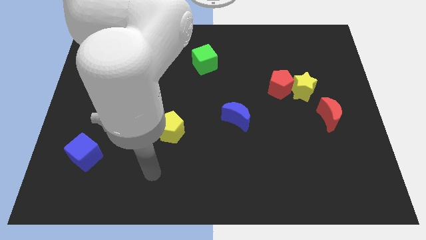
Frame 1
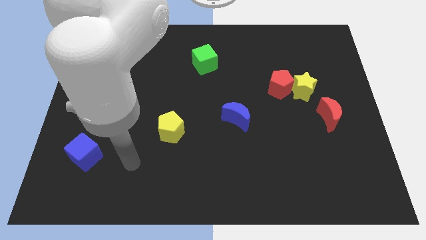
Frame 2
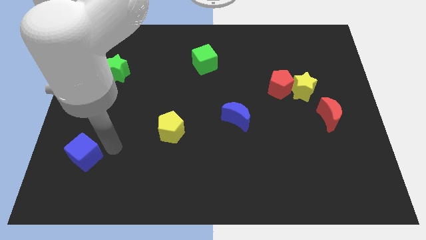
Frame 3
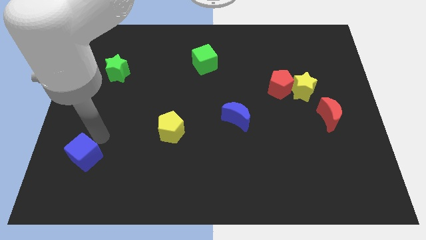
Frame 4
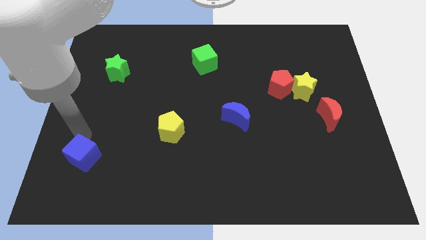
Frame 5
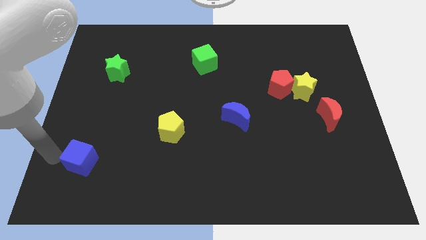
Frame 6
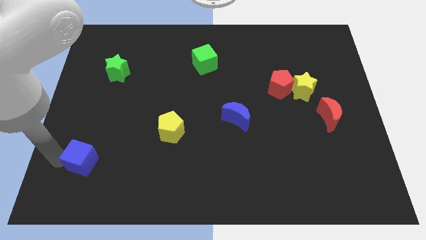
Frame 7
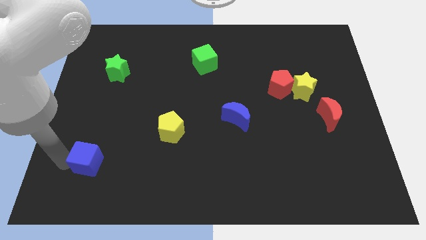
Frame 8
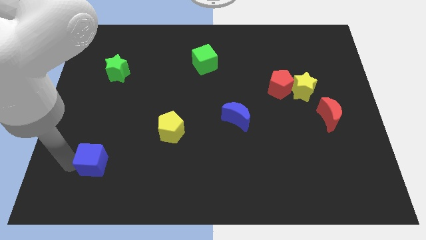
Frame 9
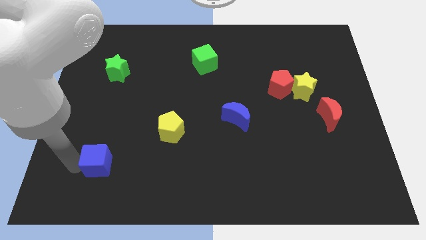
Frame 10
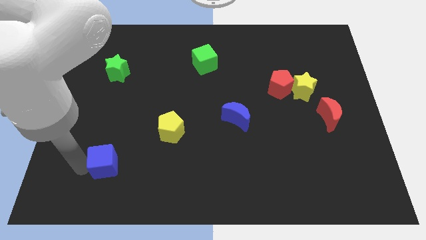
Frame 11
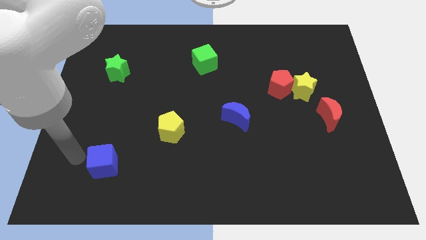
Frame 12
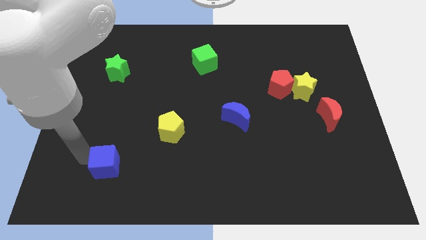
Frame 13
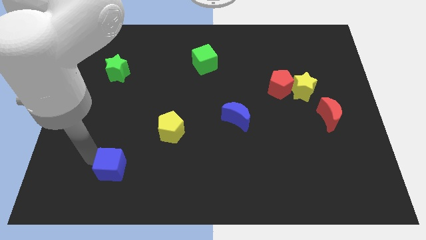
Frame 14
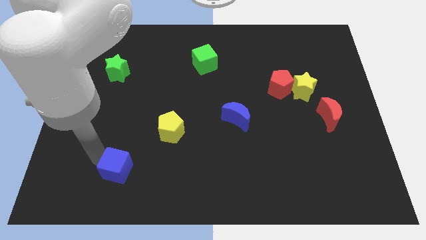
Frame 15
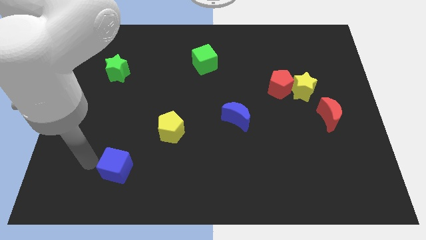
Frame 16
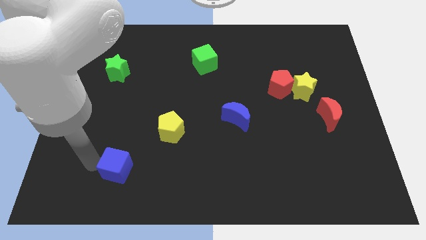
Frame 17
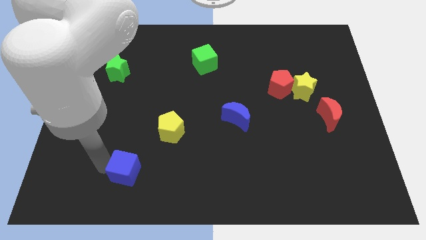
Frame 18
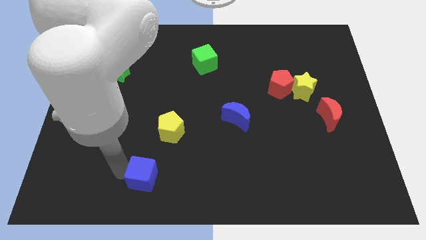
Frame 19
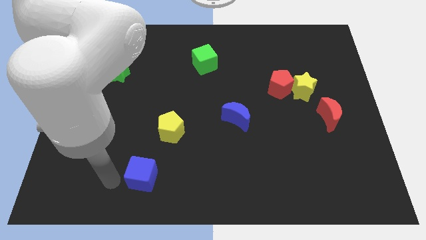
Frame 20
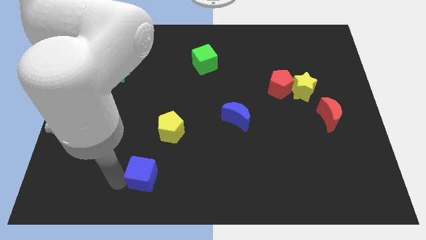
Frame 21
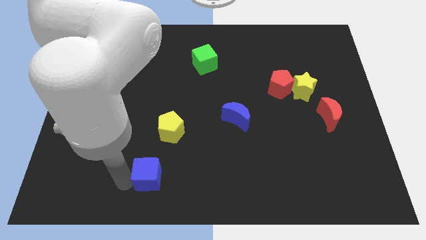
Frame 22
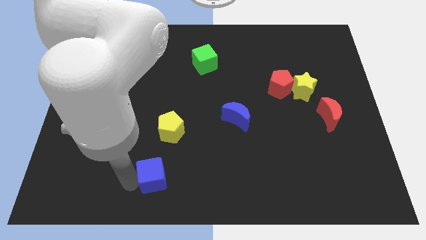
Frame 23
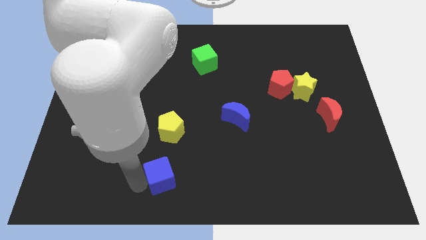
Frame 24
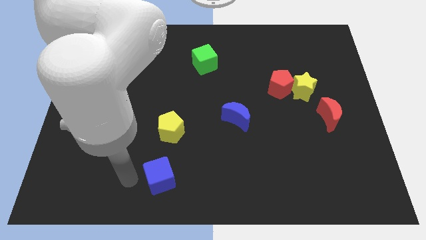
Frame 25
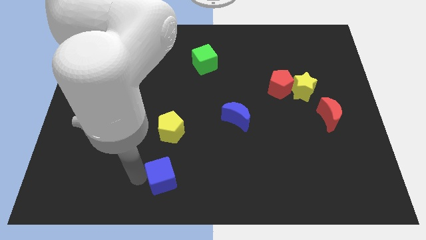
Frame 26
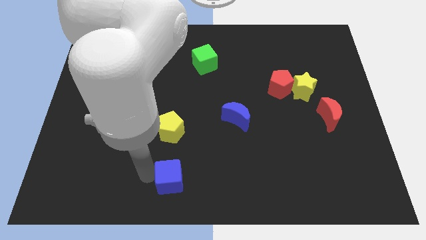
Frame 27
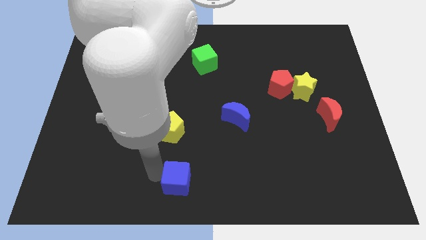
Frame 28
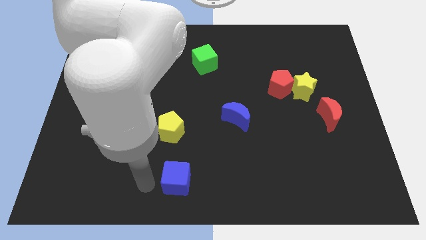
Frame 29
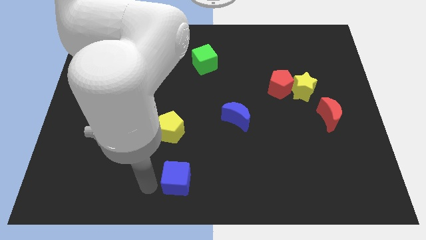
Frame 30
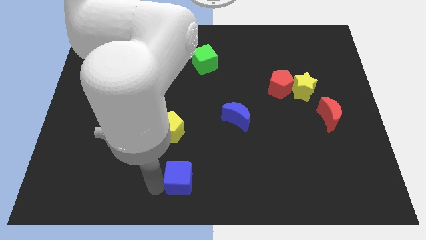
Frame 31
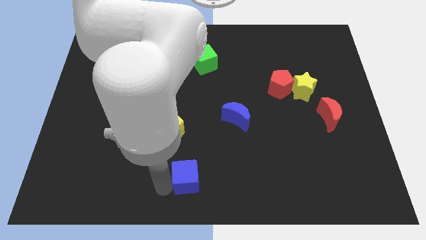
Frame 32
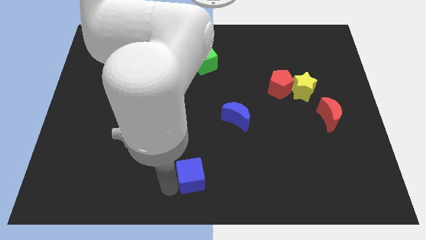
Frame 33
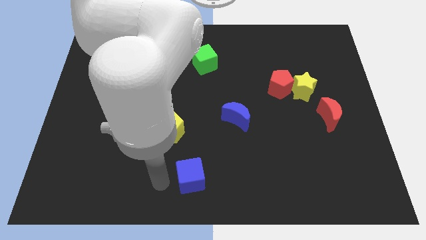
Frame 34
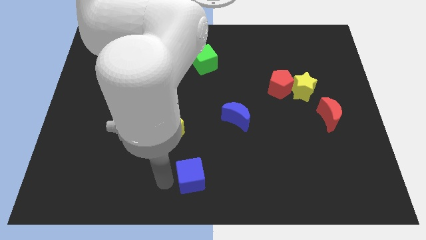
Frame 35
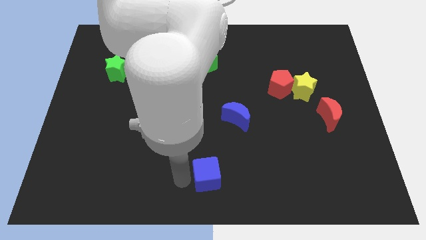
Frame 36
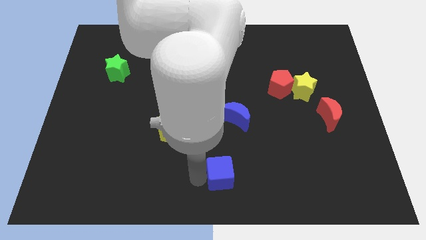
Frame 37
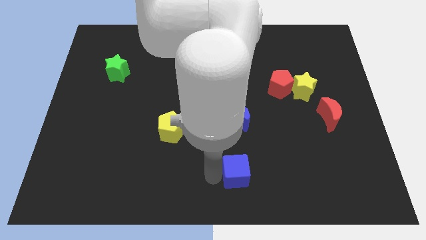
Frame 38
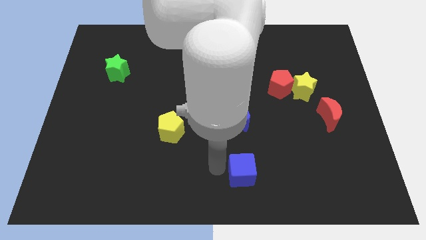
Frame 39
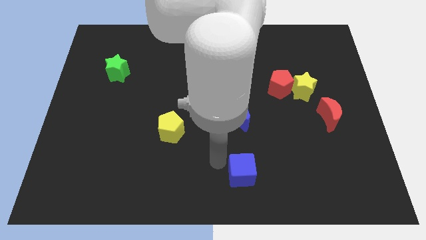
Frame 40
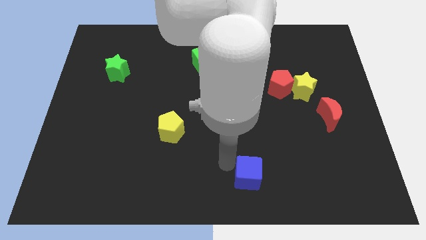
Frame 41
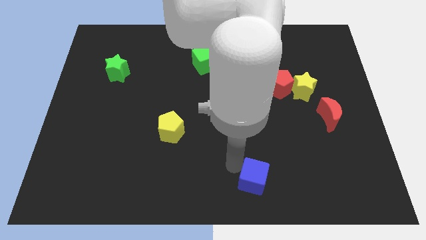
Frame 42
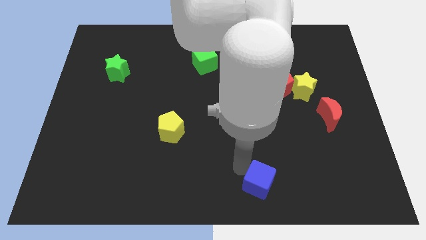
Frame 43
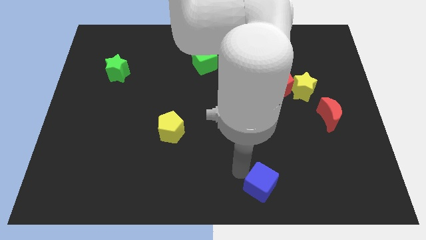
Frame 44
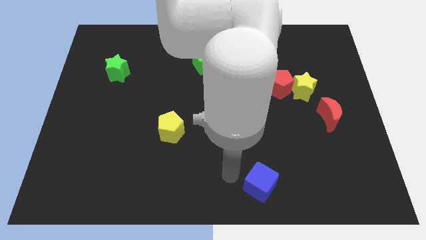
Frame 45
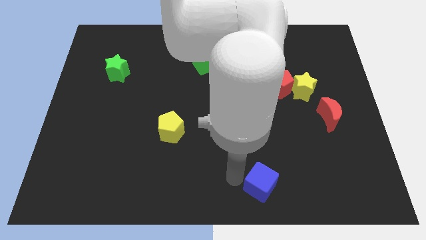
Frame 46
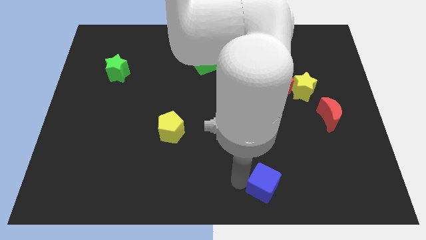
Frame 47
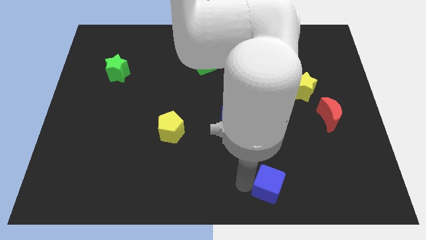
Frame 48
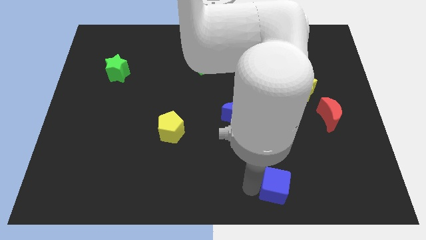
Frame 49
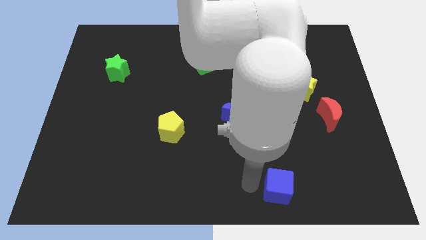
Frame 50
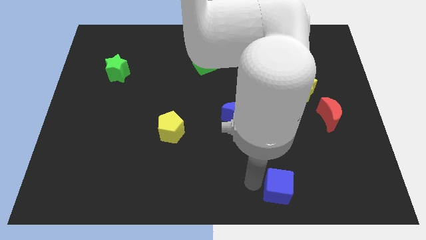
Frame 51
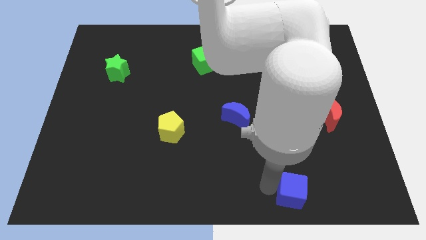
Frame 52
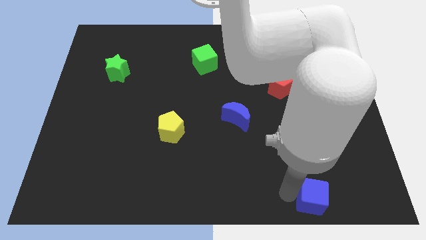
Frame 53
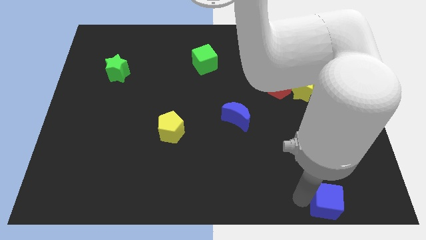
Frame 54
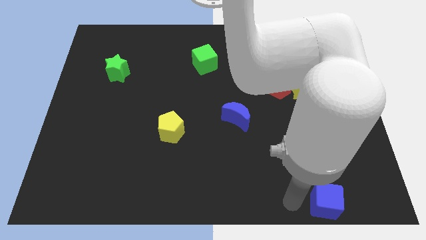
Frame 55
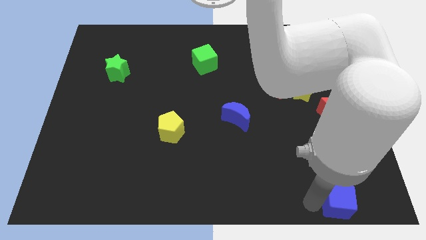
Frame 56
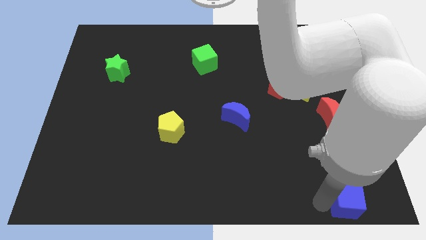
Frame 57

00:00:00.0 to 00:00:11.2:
push the blue cube to the bottom right

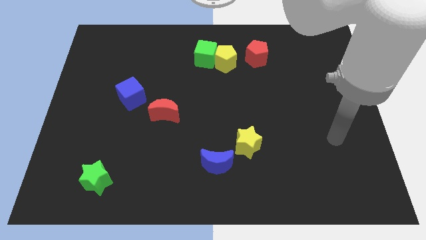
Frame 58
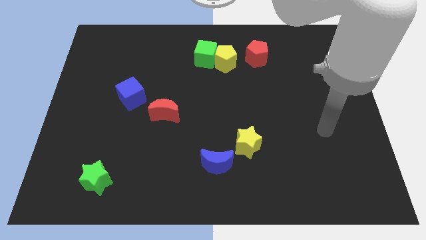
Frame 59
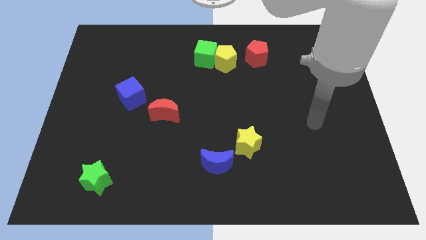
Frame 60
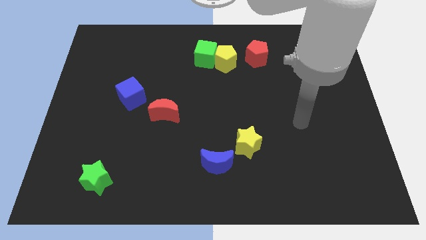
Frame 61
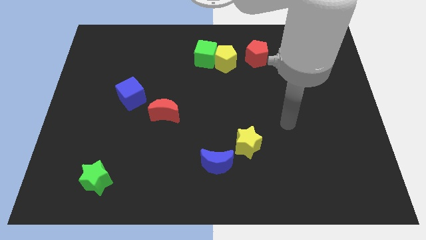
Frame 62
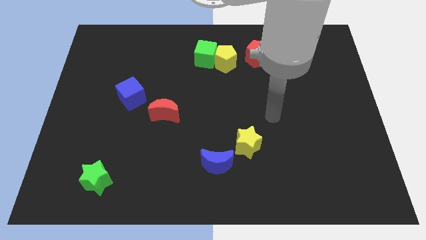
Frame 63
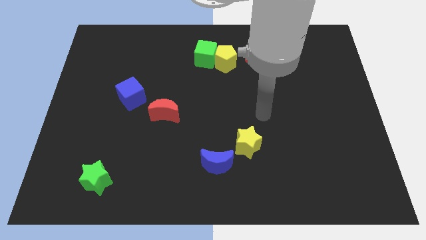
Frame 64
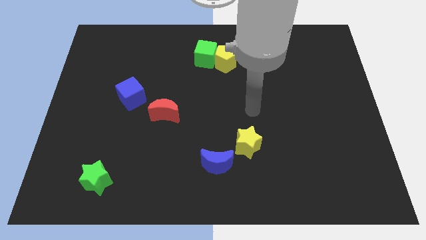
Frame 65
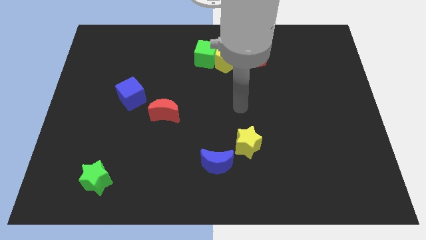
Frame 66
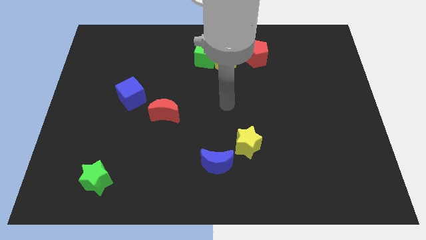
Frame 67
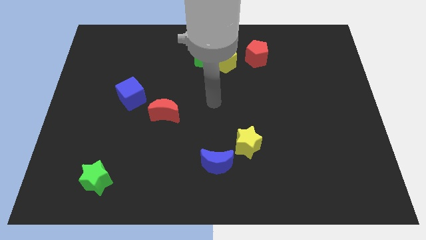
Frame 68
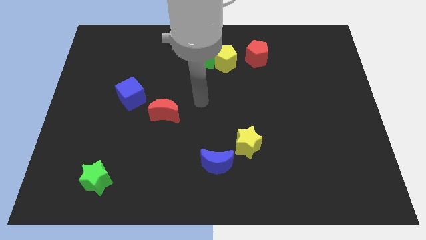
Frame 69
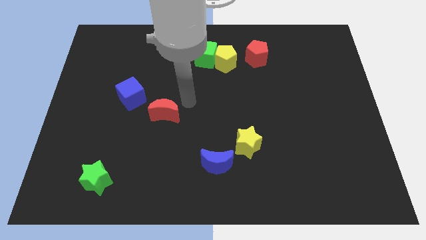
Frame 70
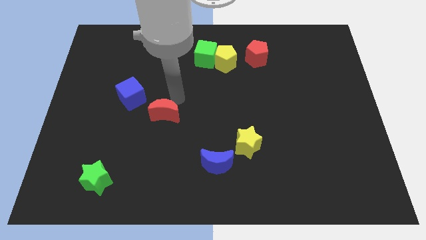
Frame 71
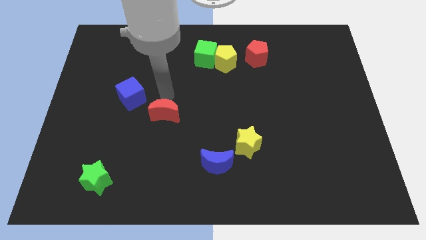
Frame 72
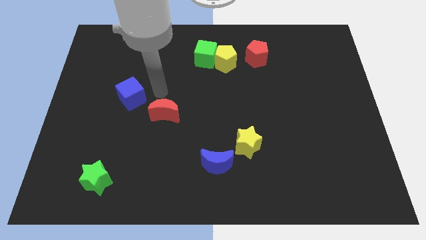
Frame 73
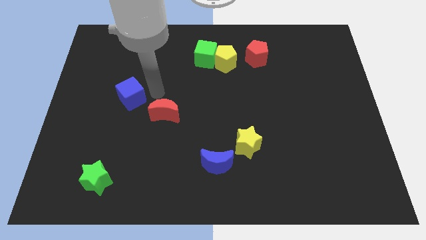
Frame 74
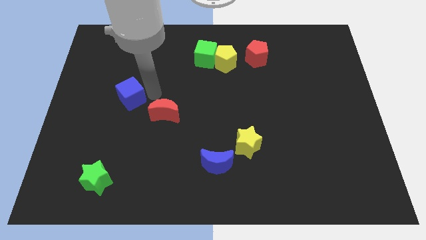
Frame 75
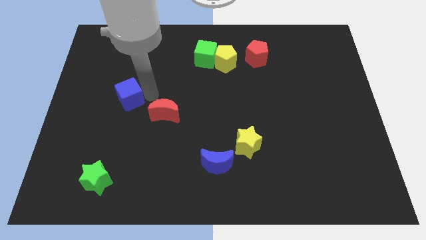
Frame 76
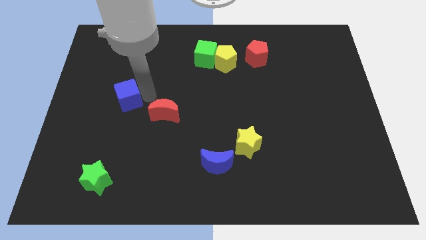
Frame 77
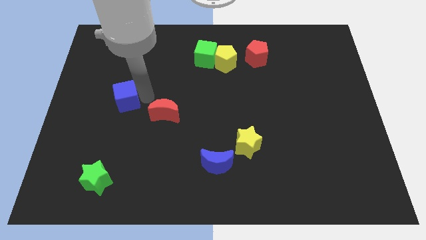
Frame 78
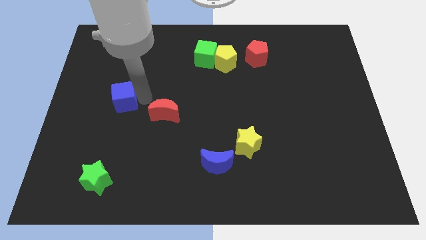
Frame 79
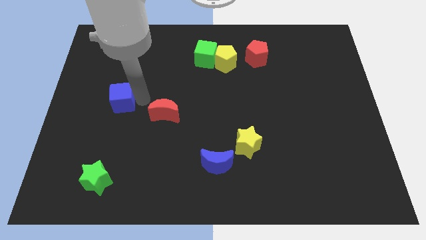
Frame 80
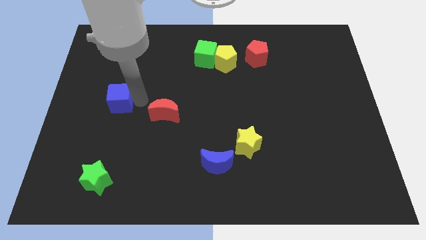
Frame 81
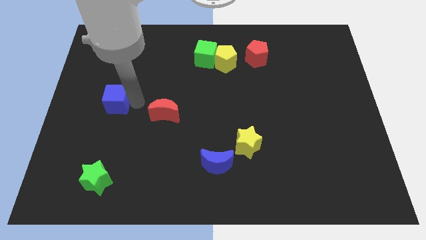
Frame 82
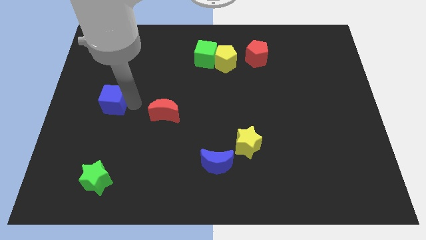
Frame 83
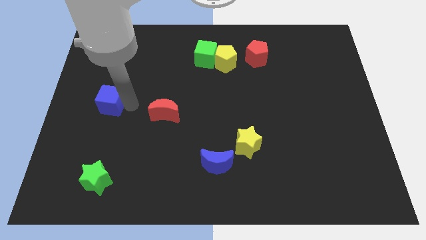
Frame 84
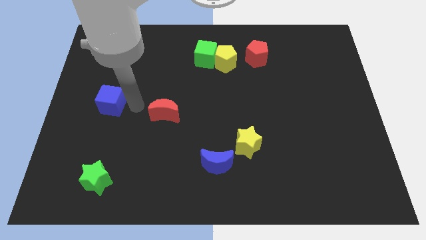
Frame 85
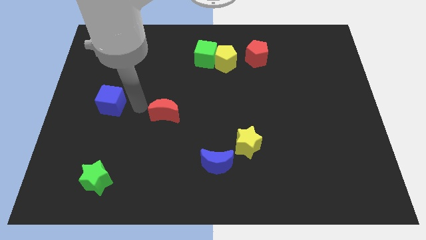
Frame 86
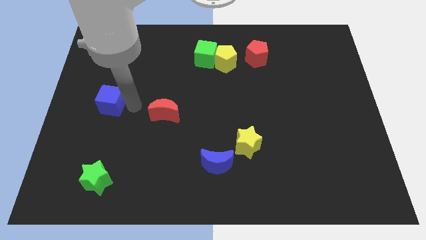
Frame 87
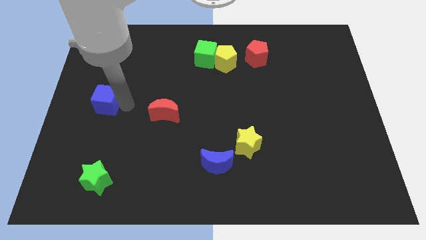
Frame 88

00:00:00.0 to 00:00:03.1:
put the blue cube to the center left
